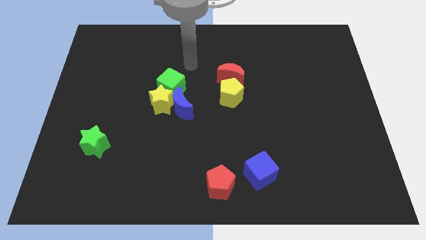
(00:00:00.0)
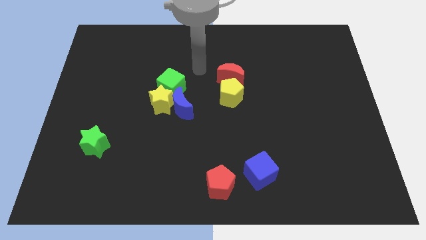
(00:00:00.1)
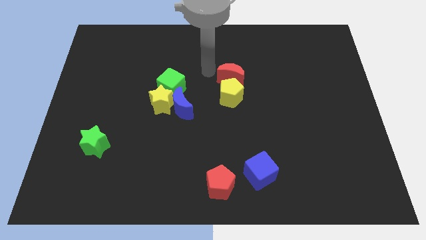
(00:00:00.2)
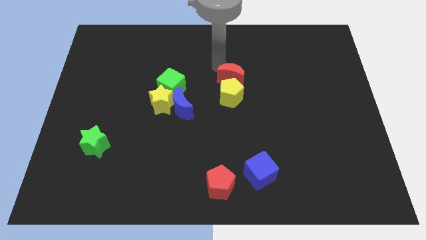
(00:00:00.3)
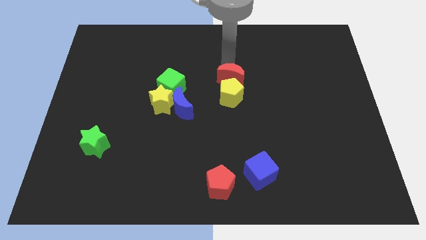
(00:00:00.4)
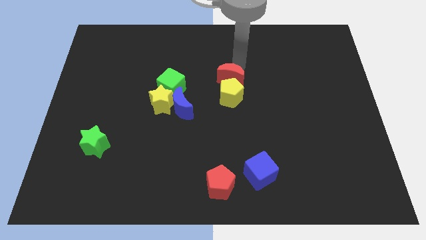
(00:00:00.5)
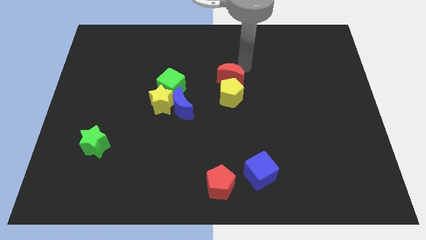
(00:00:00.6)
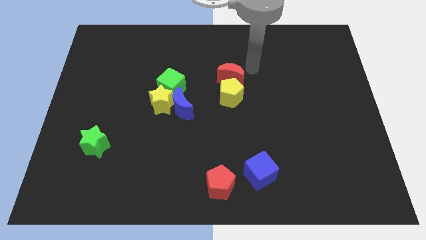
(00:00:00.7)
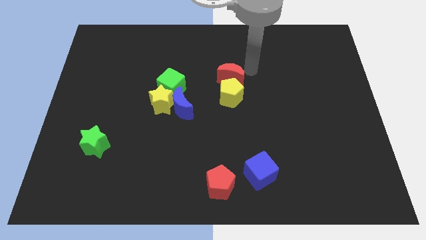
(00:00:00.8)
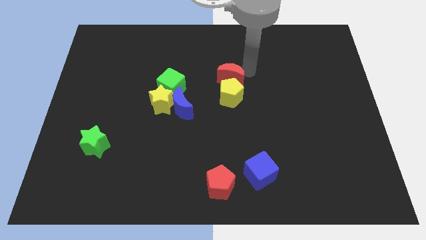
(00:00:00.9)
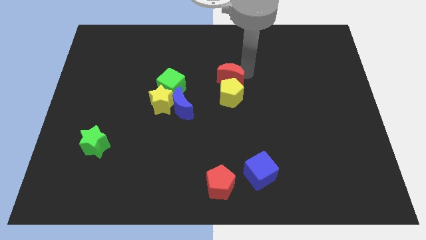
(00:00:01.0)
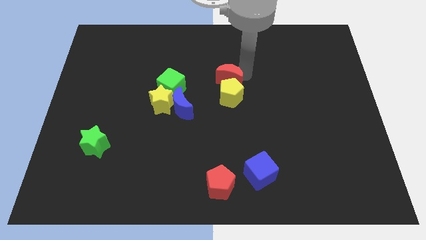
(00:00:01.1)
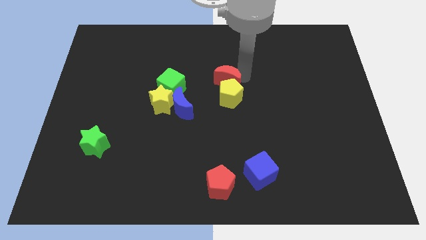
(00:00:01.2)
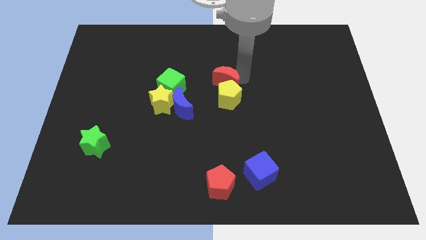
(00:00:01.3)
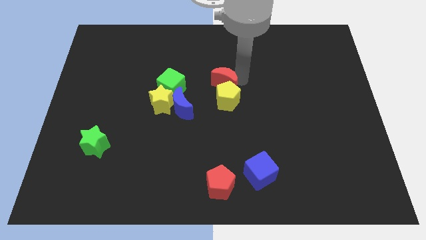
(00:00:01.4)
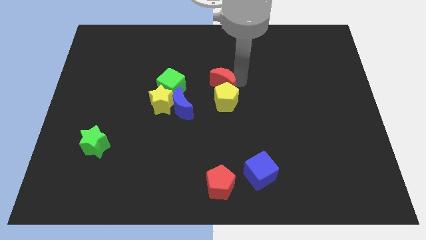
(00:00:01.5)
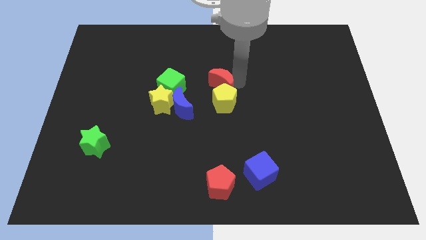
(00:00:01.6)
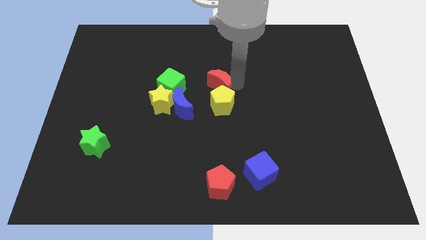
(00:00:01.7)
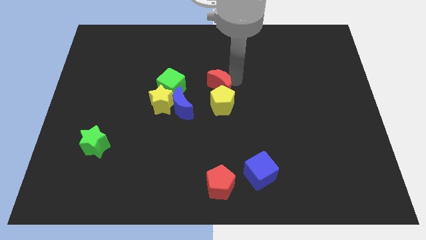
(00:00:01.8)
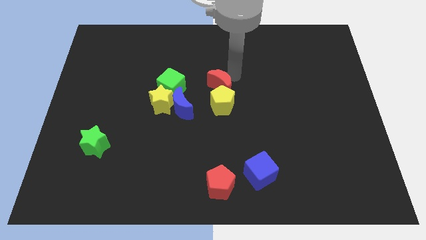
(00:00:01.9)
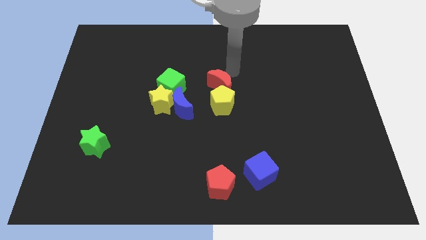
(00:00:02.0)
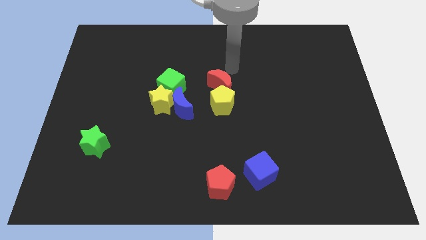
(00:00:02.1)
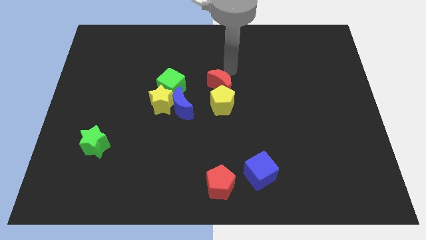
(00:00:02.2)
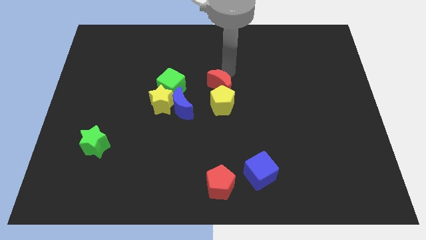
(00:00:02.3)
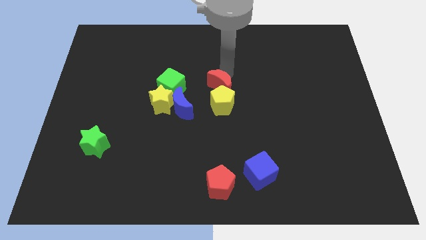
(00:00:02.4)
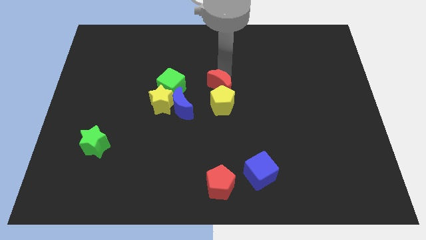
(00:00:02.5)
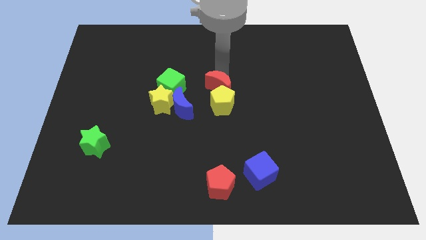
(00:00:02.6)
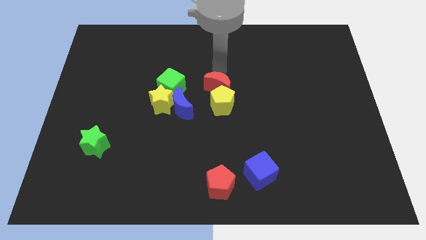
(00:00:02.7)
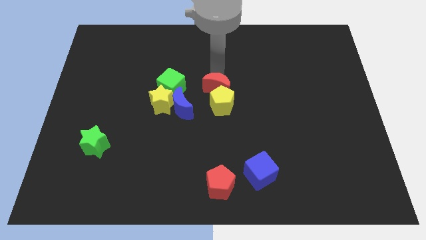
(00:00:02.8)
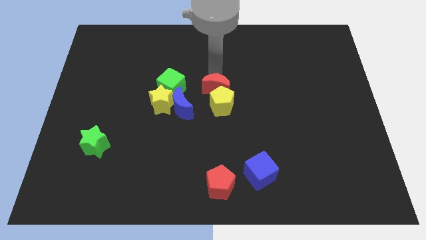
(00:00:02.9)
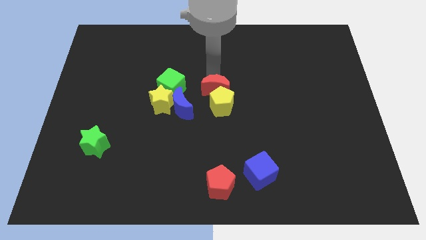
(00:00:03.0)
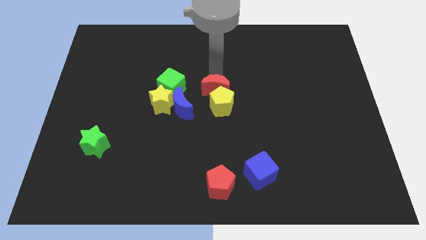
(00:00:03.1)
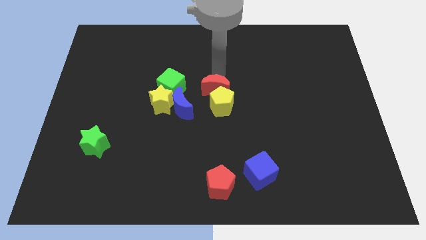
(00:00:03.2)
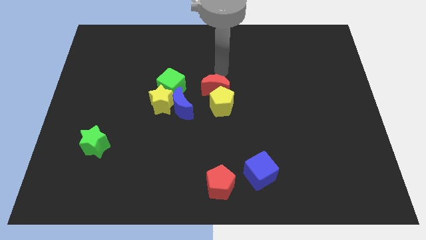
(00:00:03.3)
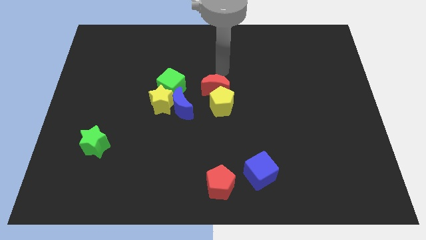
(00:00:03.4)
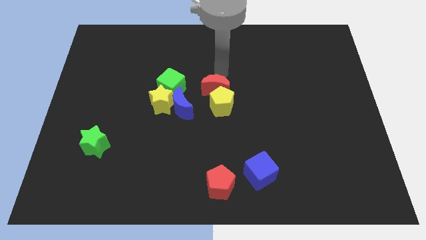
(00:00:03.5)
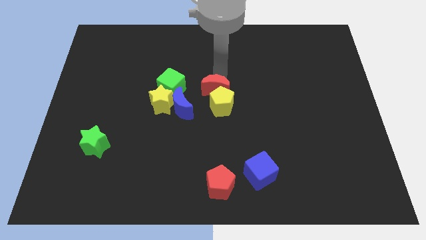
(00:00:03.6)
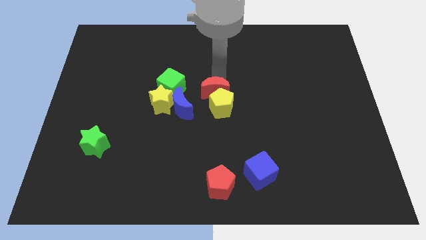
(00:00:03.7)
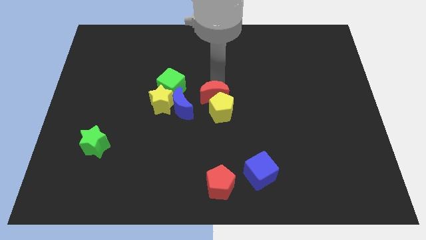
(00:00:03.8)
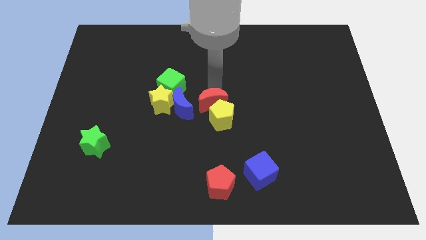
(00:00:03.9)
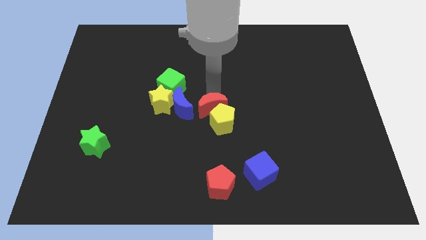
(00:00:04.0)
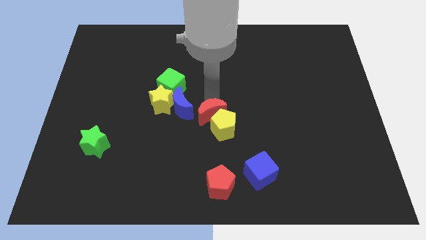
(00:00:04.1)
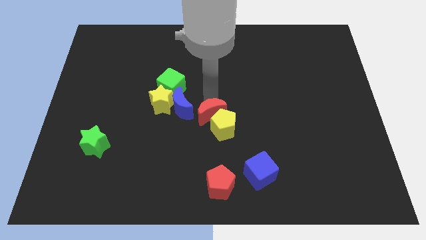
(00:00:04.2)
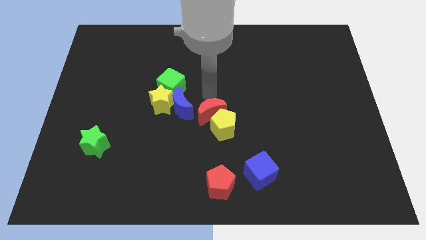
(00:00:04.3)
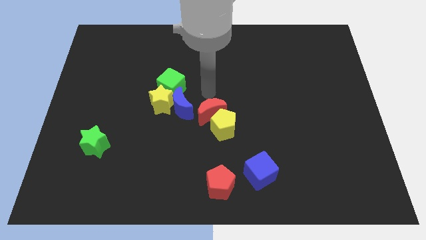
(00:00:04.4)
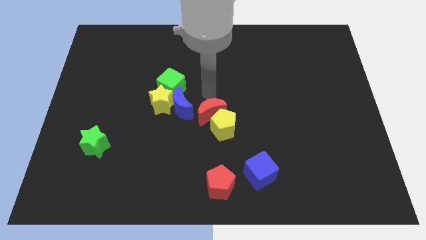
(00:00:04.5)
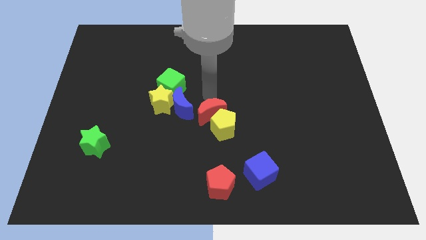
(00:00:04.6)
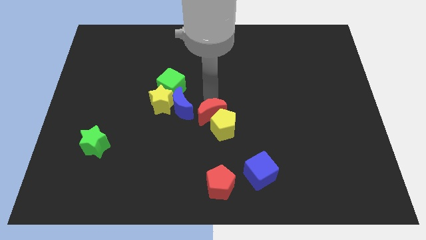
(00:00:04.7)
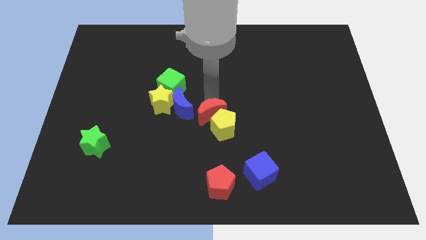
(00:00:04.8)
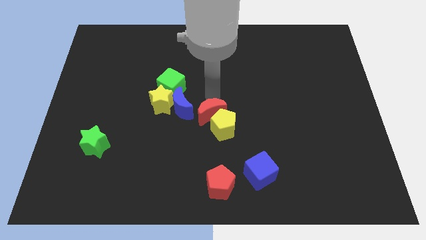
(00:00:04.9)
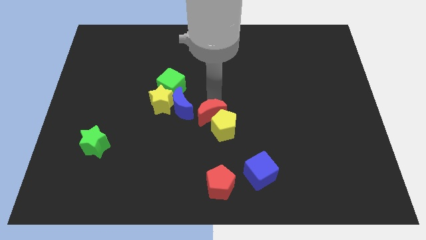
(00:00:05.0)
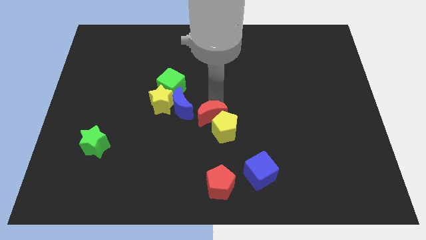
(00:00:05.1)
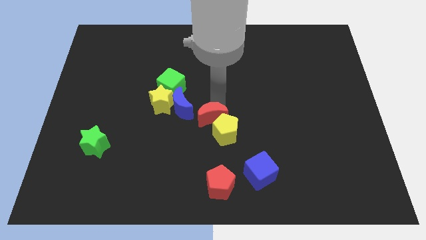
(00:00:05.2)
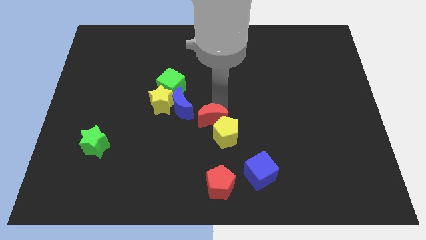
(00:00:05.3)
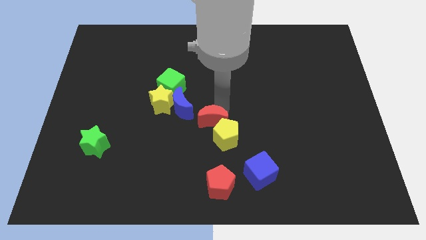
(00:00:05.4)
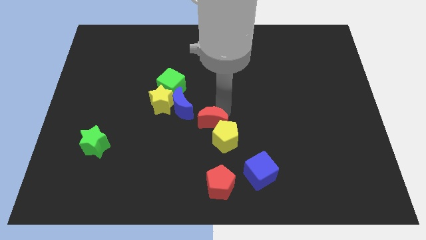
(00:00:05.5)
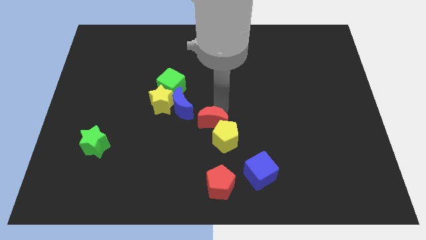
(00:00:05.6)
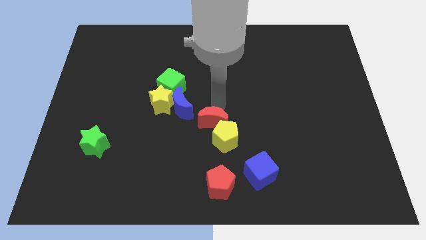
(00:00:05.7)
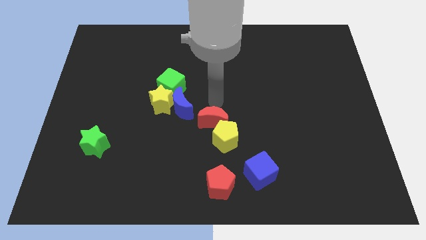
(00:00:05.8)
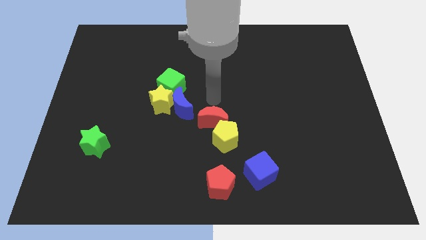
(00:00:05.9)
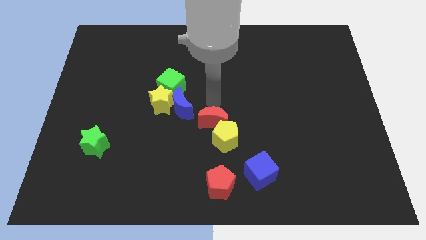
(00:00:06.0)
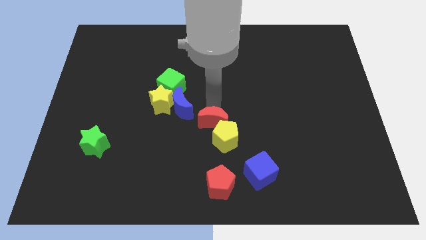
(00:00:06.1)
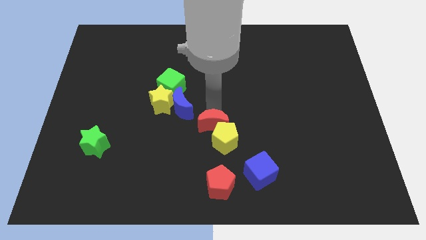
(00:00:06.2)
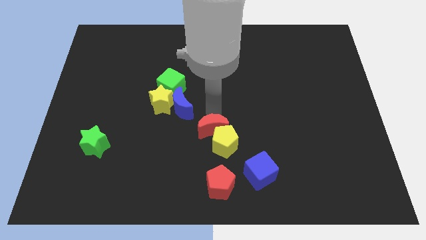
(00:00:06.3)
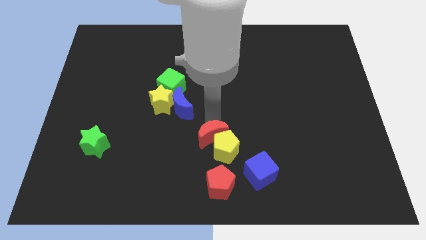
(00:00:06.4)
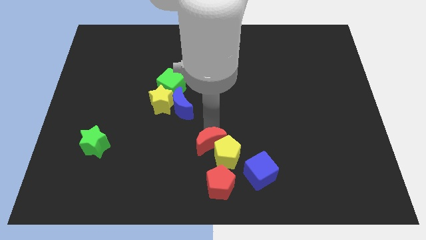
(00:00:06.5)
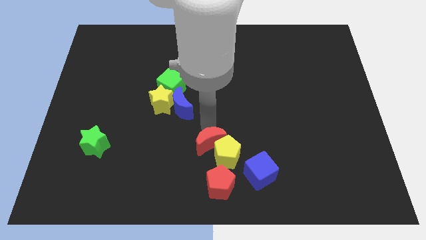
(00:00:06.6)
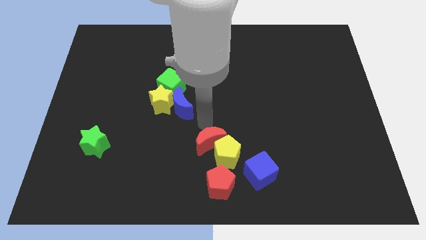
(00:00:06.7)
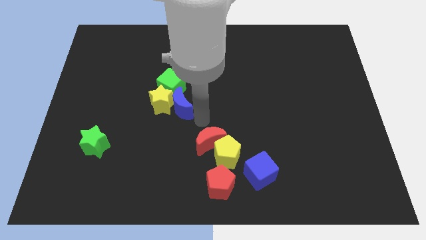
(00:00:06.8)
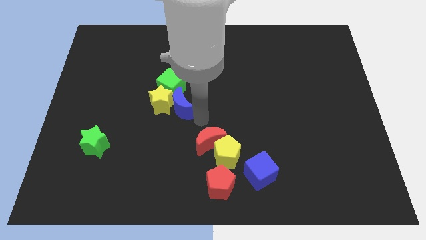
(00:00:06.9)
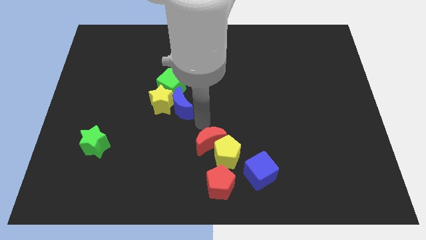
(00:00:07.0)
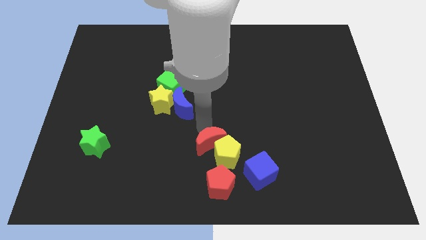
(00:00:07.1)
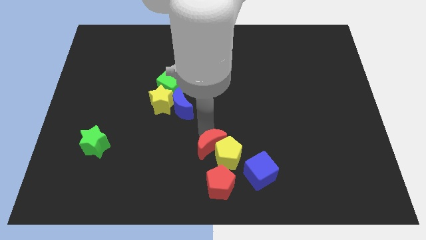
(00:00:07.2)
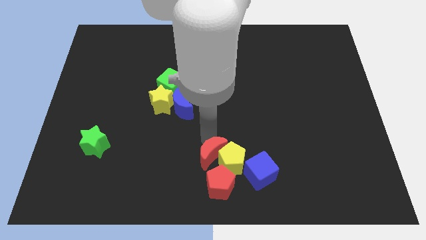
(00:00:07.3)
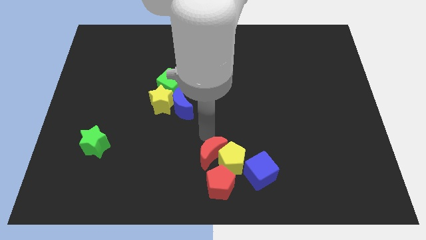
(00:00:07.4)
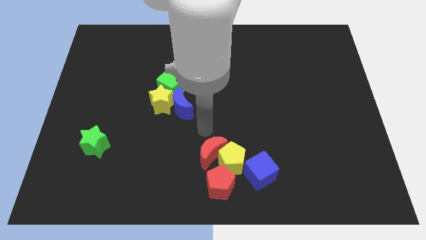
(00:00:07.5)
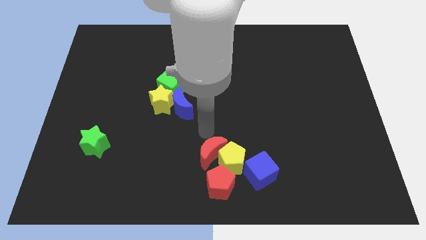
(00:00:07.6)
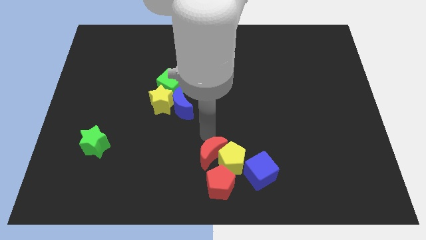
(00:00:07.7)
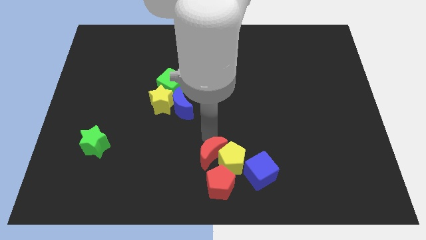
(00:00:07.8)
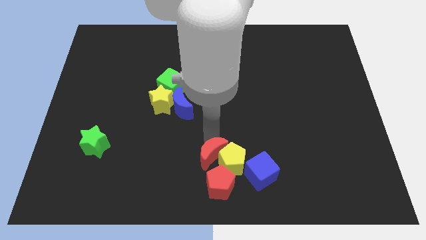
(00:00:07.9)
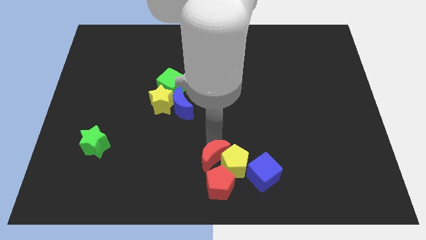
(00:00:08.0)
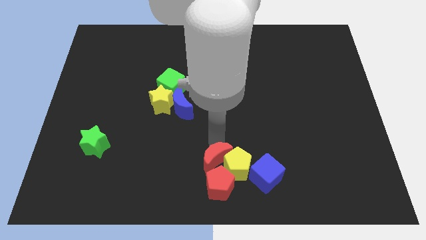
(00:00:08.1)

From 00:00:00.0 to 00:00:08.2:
put the red moon next to the red pentagon
